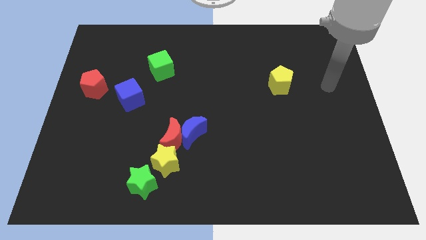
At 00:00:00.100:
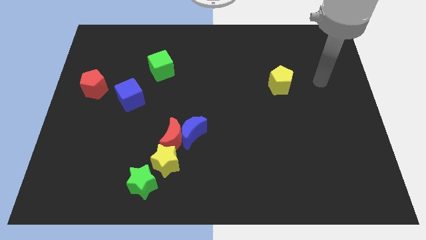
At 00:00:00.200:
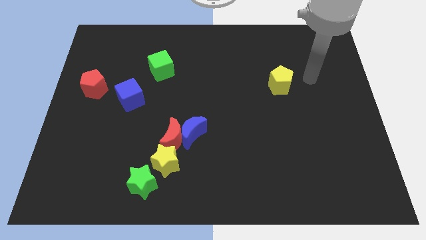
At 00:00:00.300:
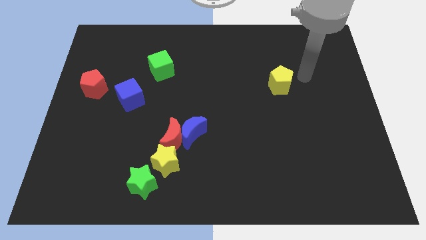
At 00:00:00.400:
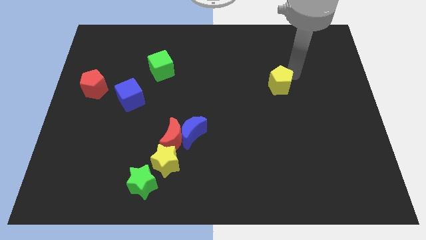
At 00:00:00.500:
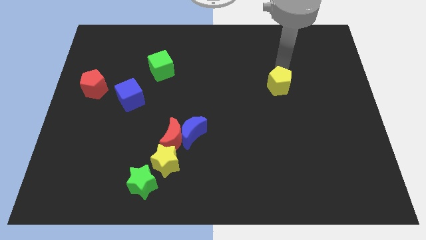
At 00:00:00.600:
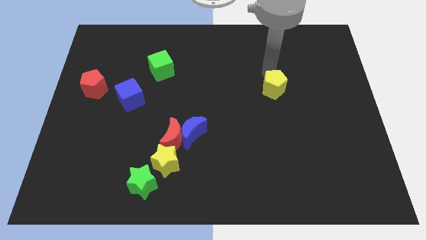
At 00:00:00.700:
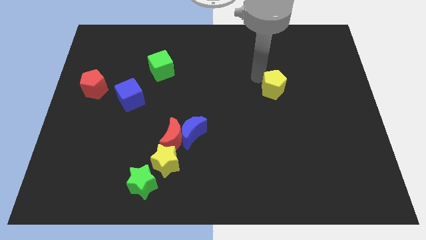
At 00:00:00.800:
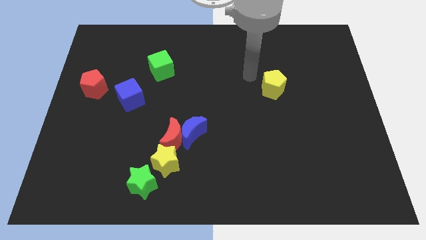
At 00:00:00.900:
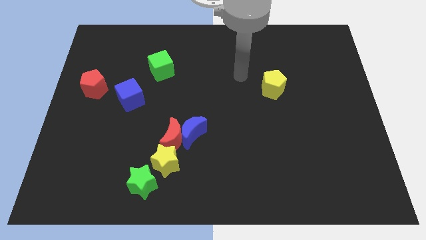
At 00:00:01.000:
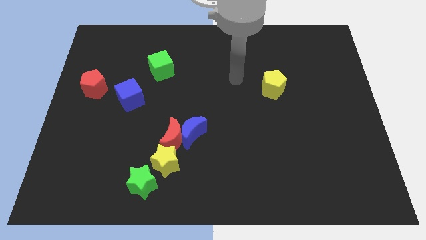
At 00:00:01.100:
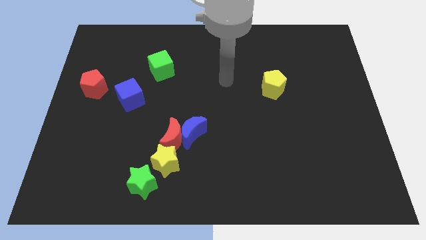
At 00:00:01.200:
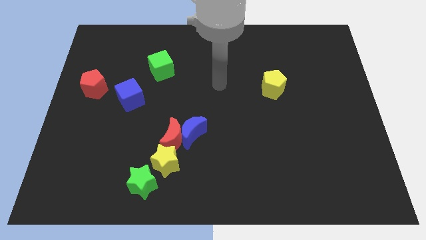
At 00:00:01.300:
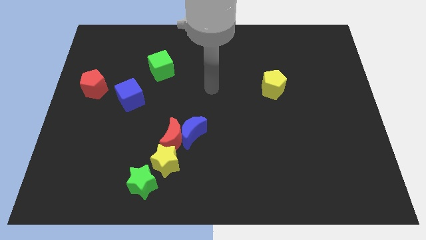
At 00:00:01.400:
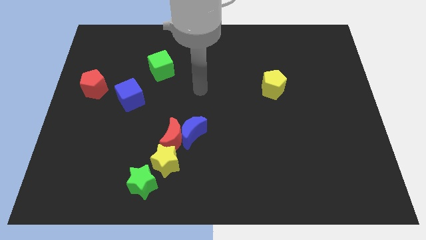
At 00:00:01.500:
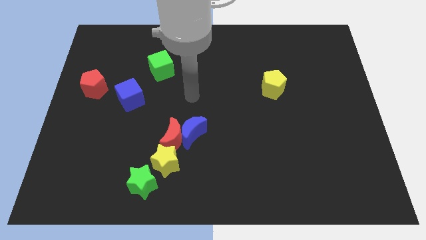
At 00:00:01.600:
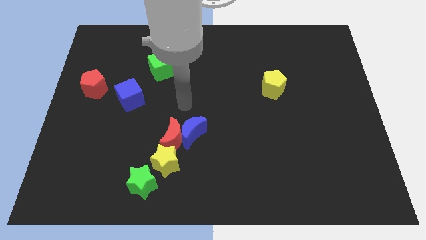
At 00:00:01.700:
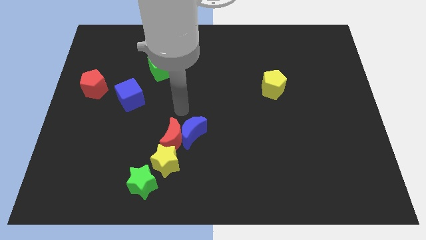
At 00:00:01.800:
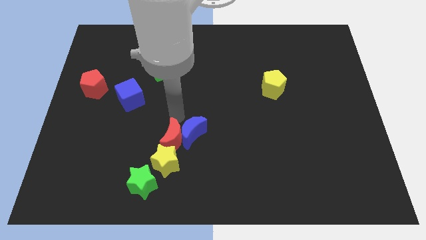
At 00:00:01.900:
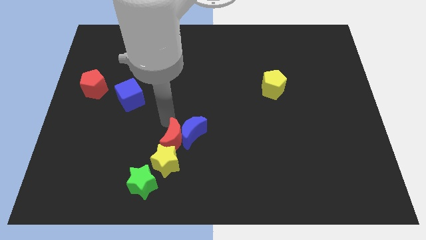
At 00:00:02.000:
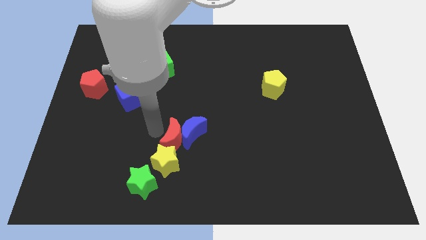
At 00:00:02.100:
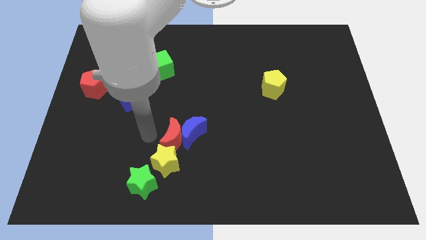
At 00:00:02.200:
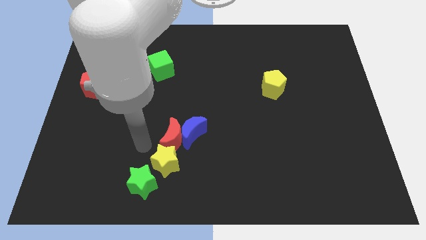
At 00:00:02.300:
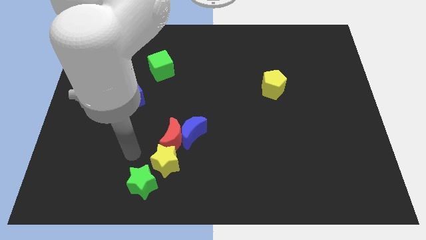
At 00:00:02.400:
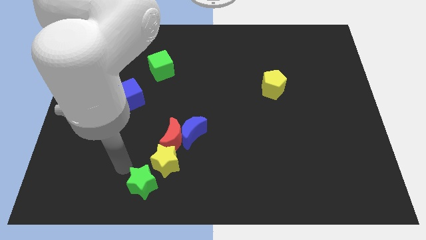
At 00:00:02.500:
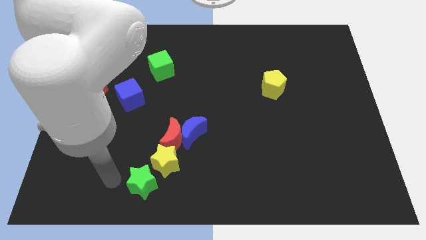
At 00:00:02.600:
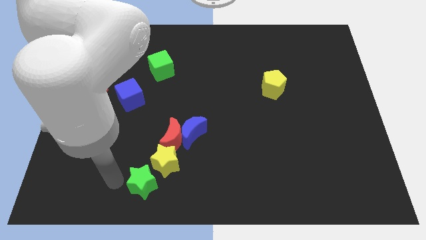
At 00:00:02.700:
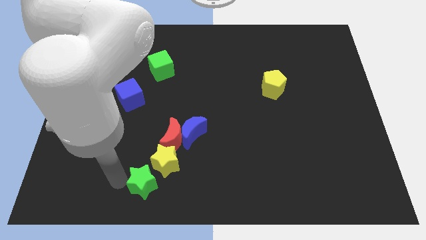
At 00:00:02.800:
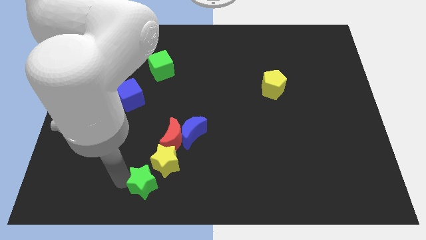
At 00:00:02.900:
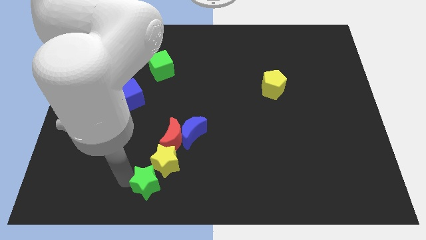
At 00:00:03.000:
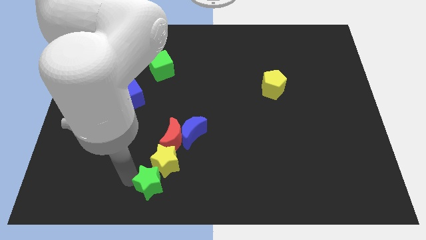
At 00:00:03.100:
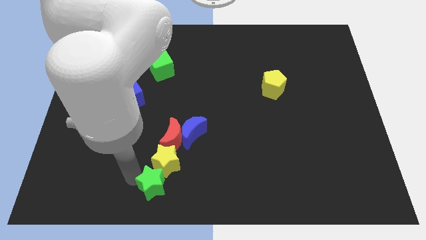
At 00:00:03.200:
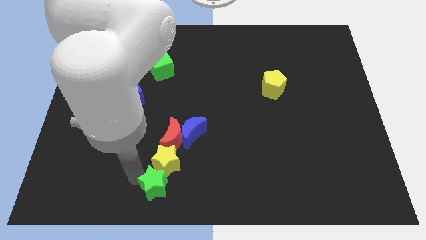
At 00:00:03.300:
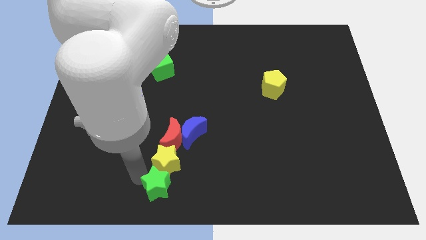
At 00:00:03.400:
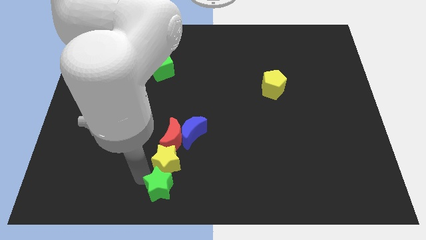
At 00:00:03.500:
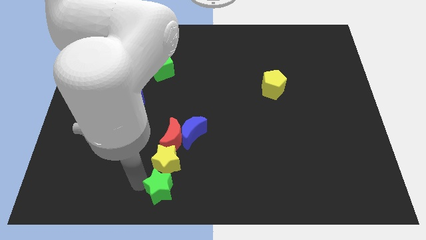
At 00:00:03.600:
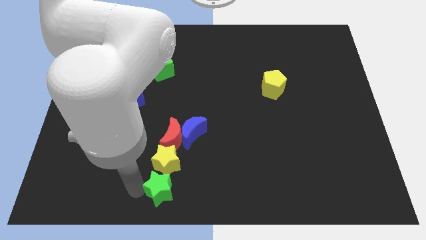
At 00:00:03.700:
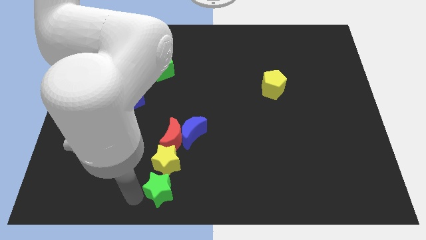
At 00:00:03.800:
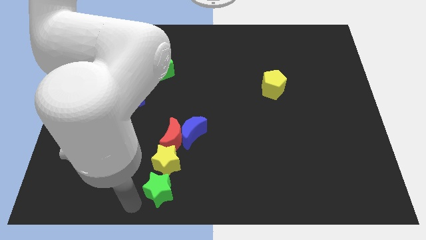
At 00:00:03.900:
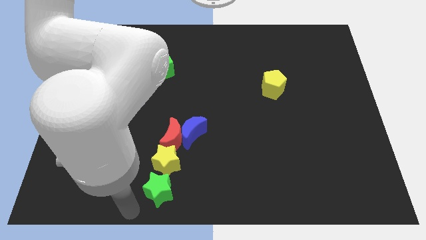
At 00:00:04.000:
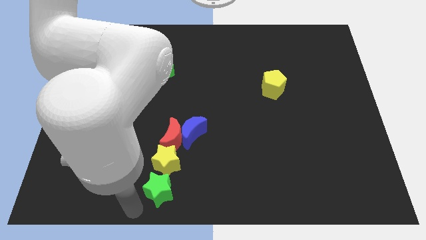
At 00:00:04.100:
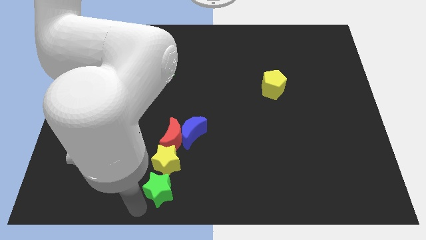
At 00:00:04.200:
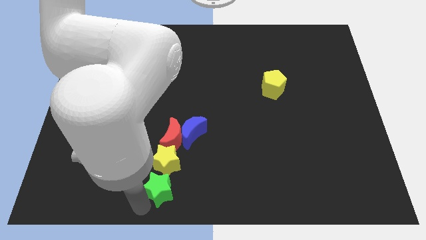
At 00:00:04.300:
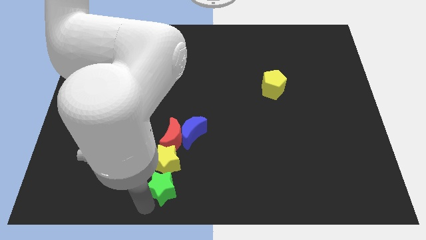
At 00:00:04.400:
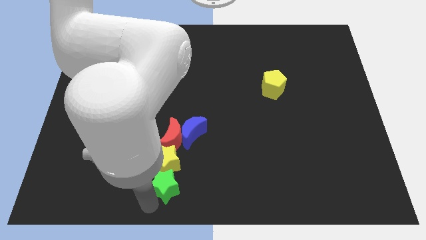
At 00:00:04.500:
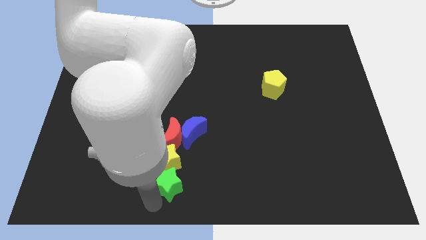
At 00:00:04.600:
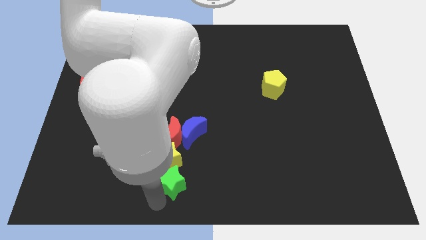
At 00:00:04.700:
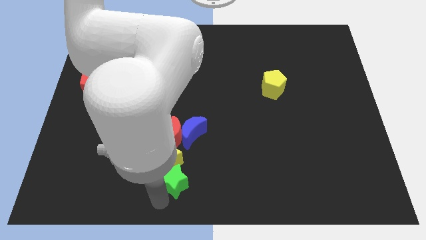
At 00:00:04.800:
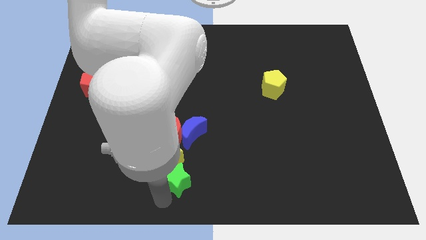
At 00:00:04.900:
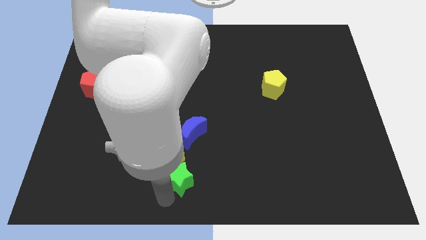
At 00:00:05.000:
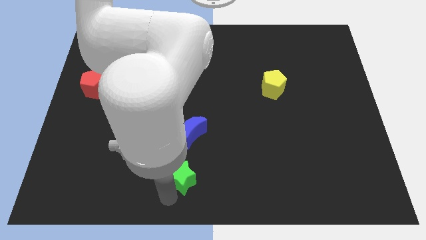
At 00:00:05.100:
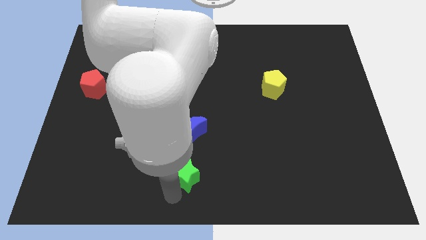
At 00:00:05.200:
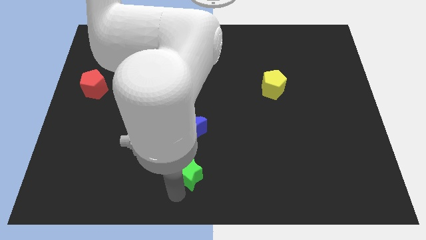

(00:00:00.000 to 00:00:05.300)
push the green star a little up and right diagonally

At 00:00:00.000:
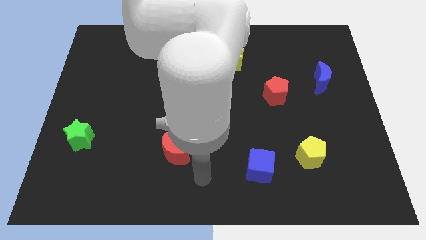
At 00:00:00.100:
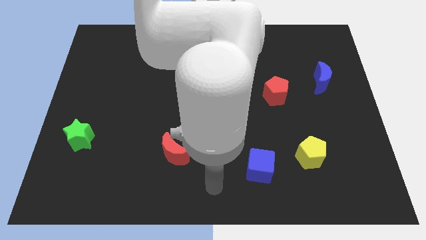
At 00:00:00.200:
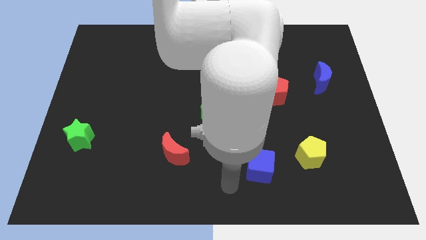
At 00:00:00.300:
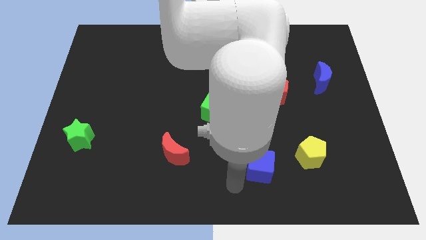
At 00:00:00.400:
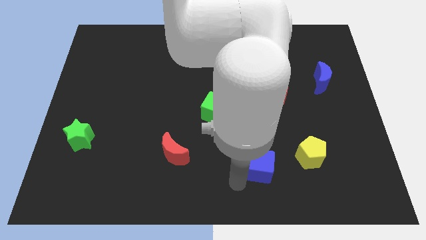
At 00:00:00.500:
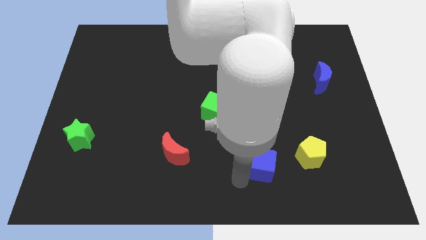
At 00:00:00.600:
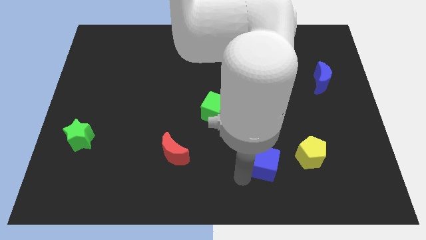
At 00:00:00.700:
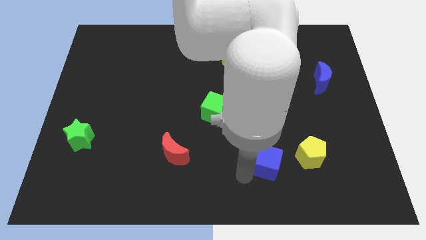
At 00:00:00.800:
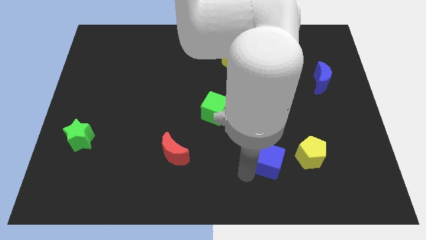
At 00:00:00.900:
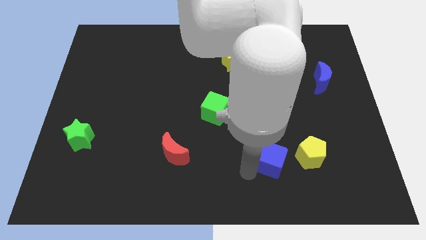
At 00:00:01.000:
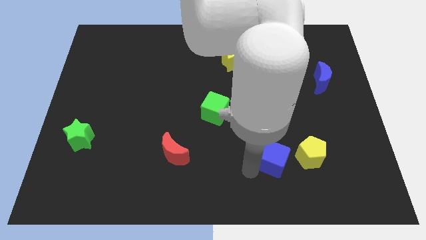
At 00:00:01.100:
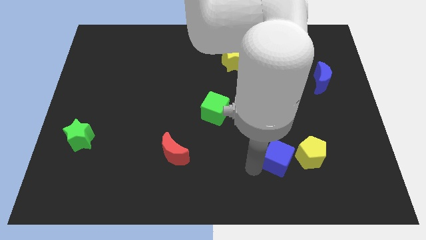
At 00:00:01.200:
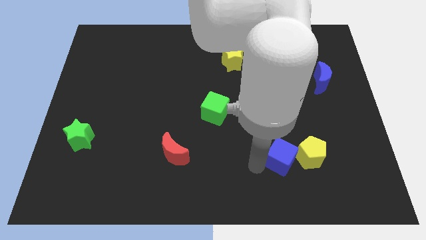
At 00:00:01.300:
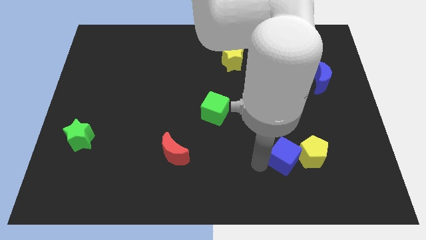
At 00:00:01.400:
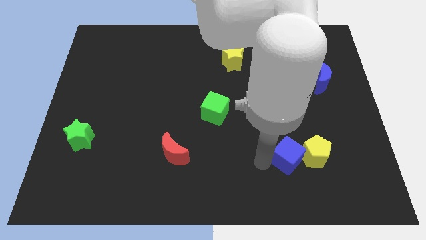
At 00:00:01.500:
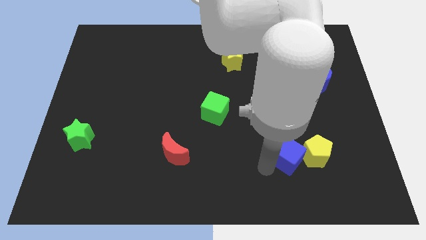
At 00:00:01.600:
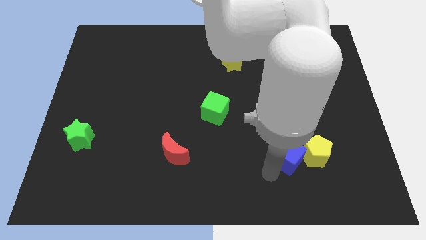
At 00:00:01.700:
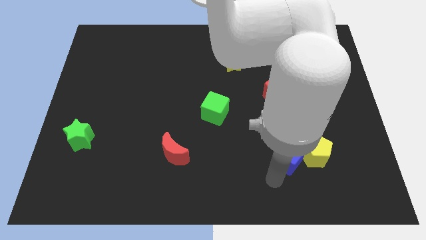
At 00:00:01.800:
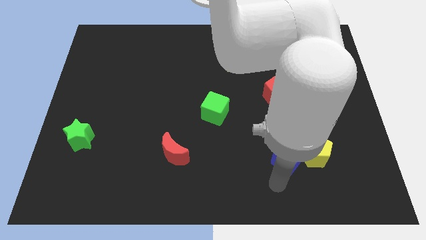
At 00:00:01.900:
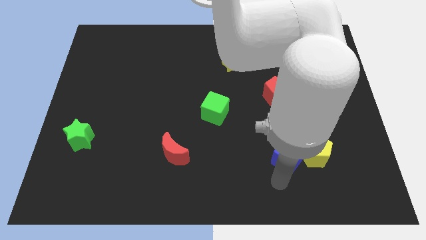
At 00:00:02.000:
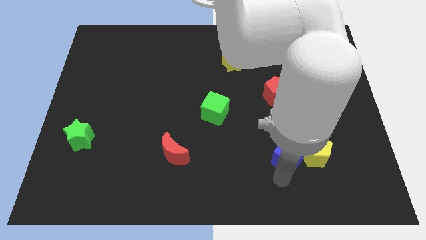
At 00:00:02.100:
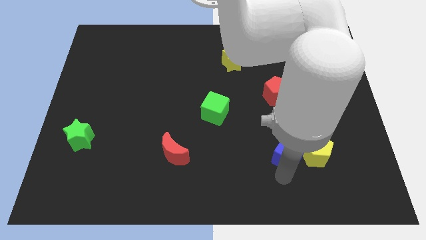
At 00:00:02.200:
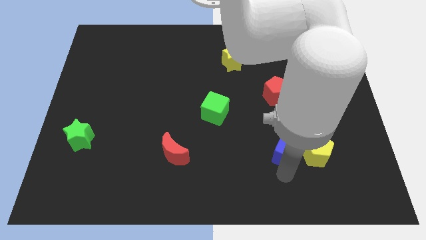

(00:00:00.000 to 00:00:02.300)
push the blue cube up and to the right diagonally a bit

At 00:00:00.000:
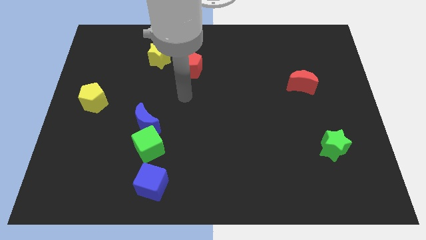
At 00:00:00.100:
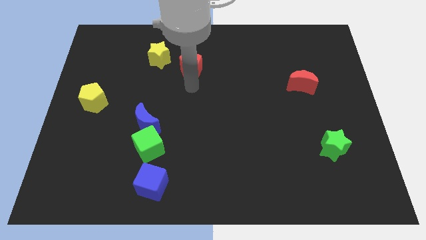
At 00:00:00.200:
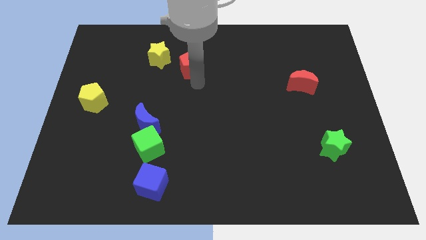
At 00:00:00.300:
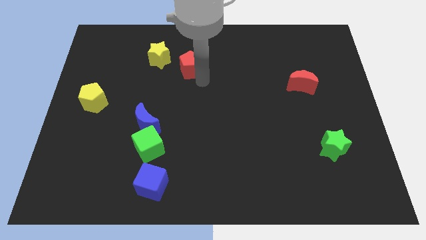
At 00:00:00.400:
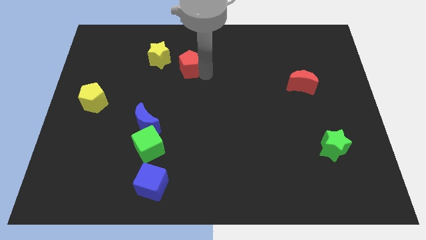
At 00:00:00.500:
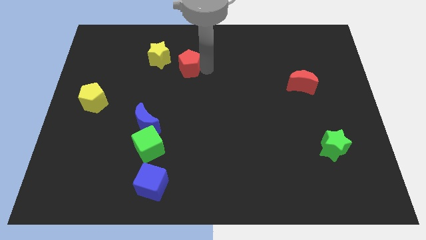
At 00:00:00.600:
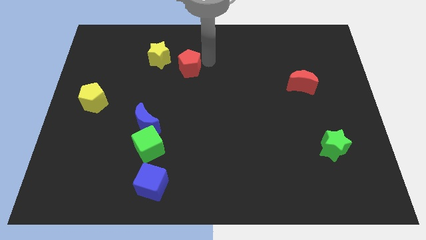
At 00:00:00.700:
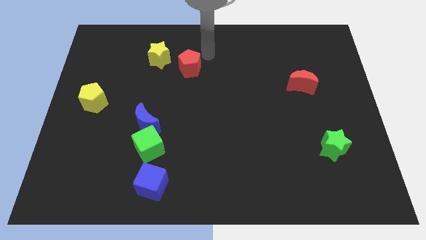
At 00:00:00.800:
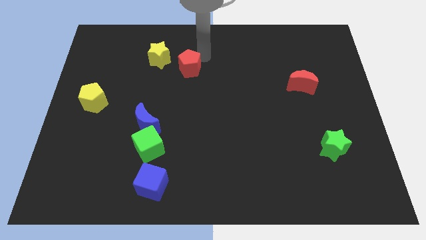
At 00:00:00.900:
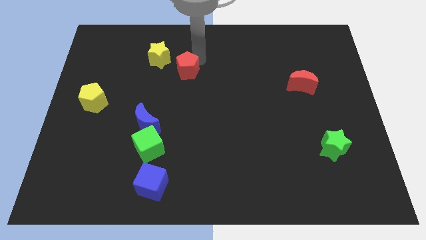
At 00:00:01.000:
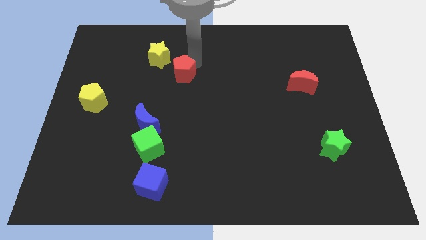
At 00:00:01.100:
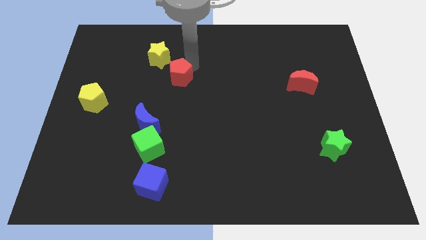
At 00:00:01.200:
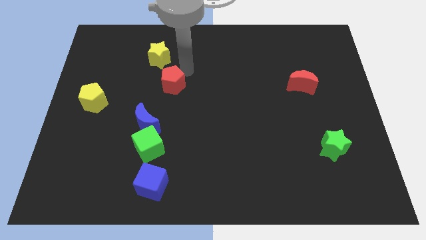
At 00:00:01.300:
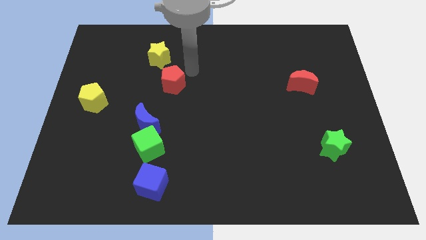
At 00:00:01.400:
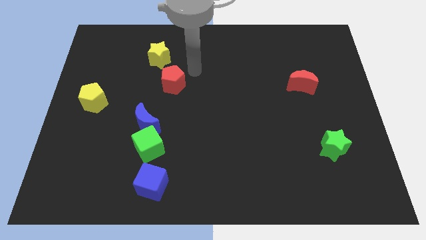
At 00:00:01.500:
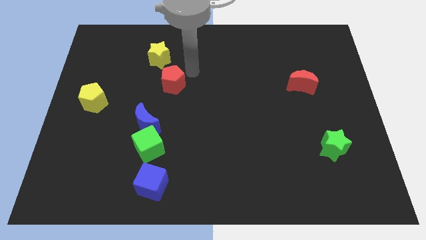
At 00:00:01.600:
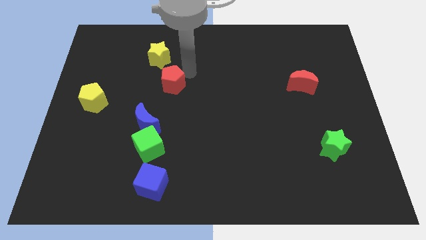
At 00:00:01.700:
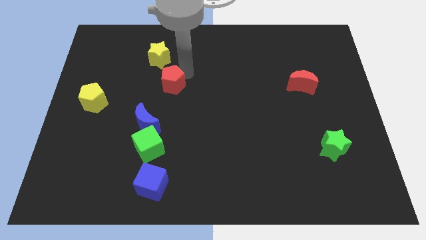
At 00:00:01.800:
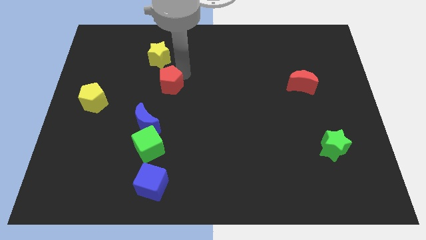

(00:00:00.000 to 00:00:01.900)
slide the red pentagon downwards and left diagonally slightly
